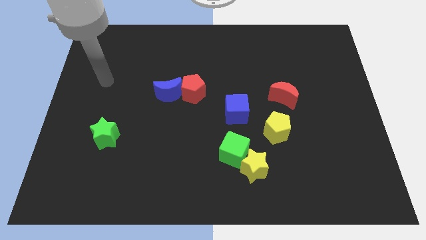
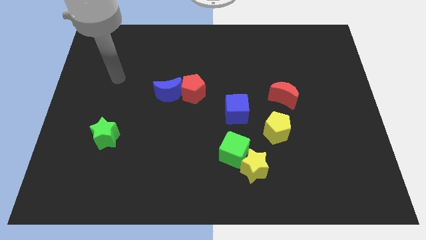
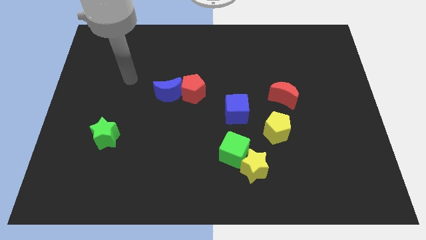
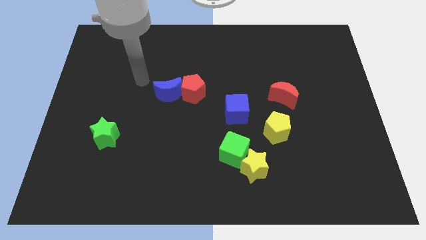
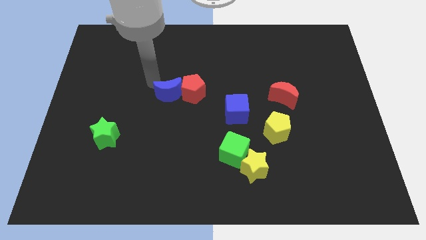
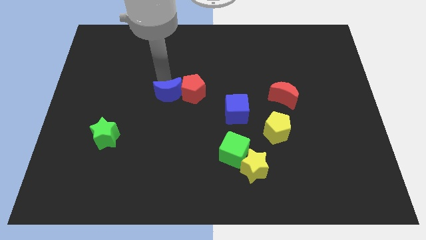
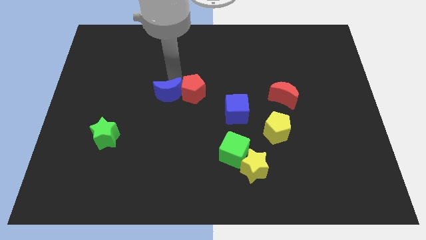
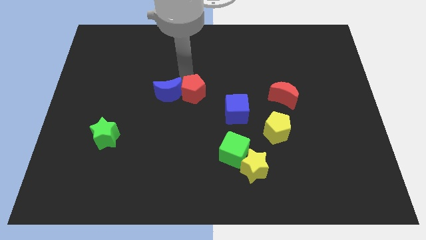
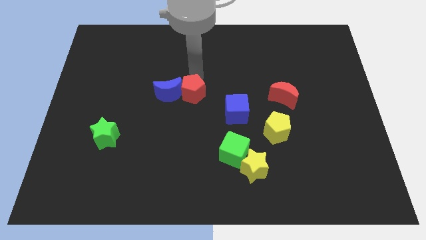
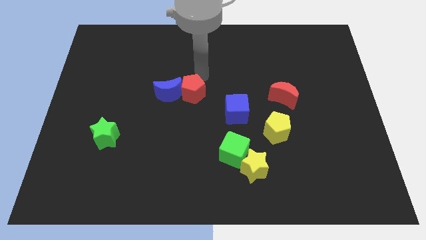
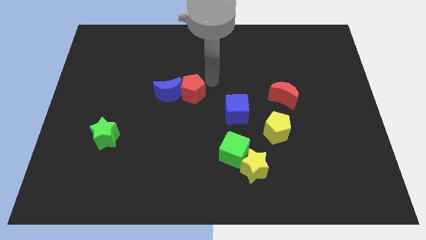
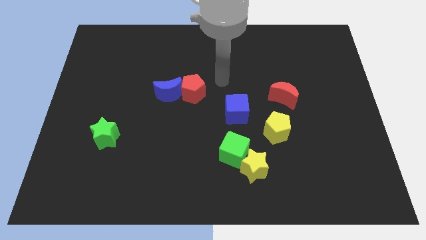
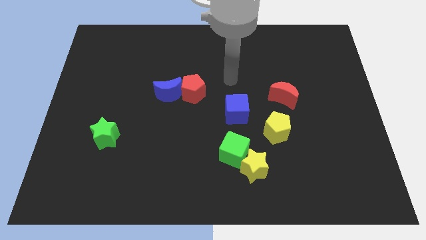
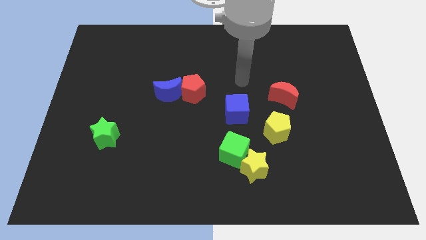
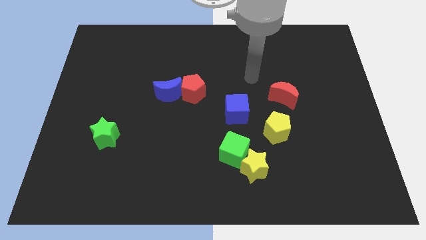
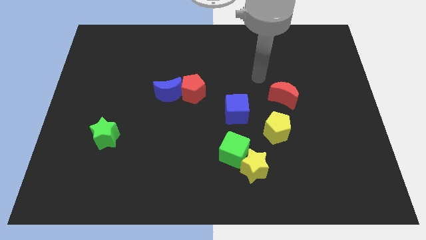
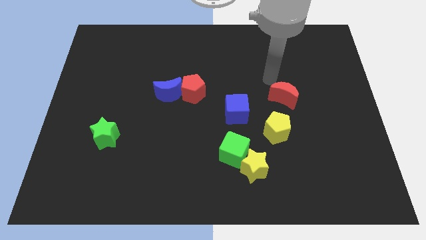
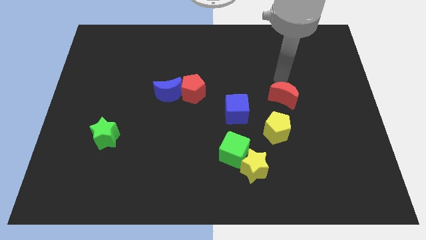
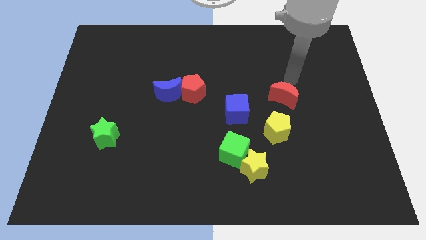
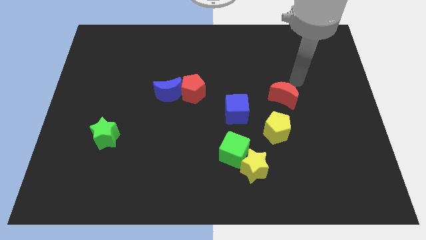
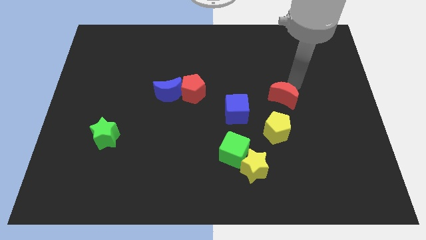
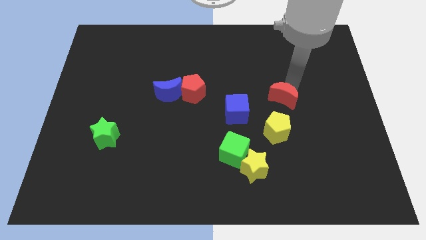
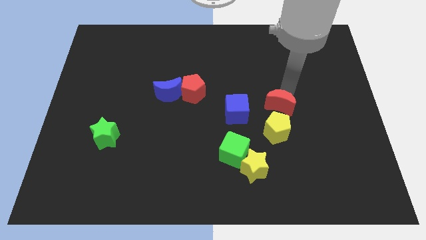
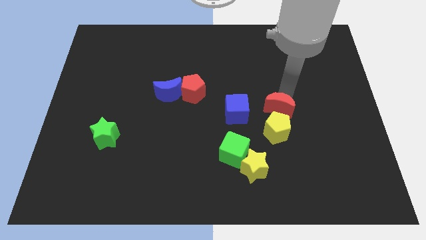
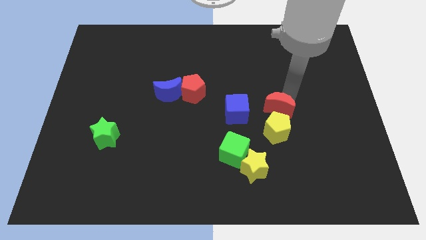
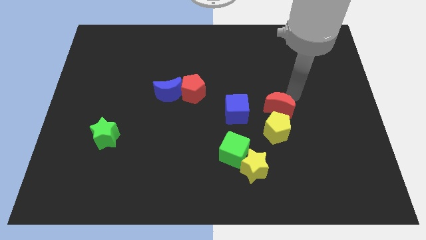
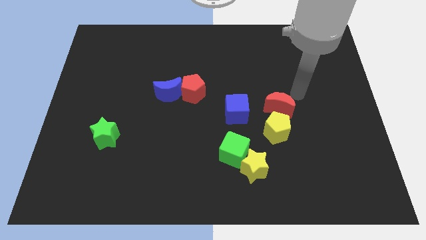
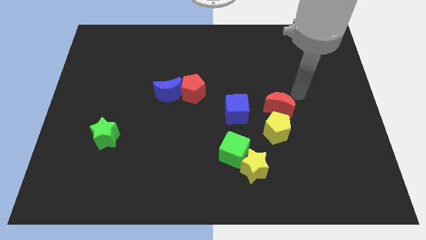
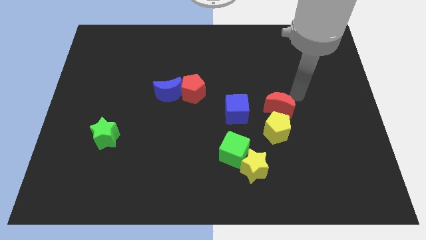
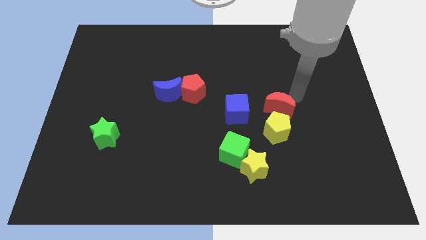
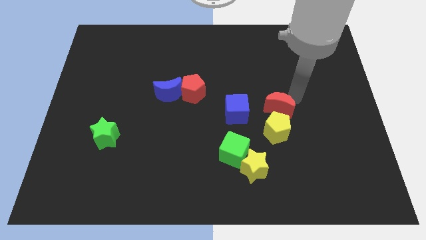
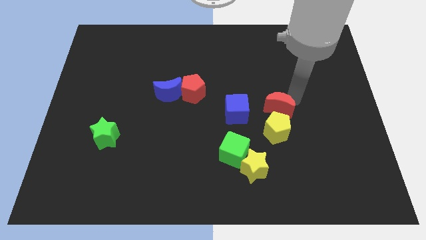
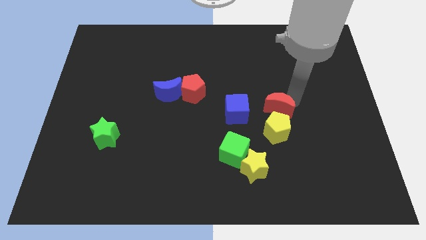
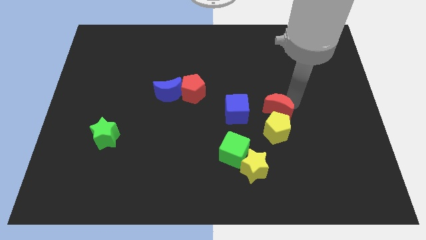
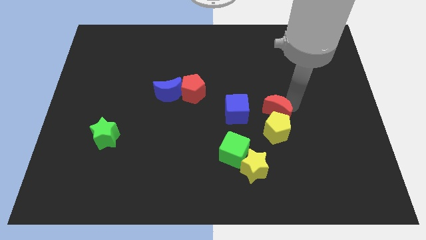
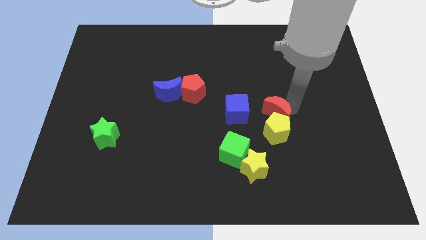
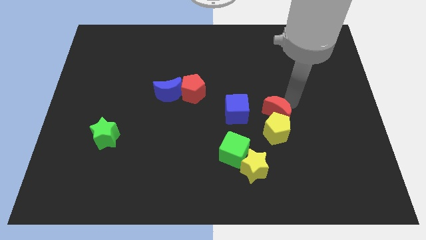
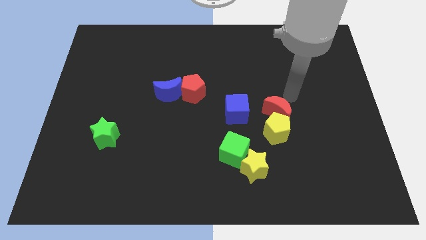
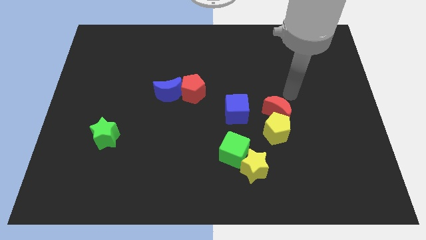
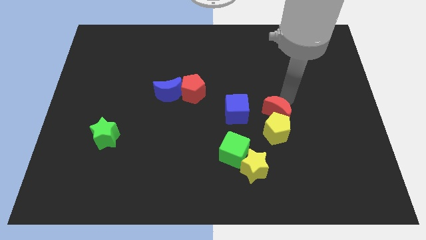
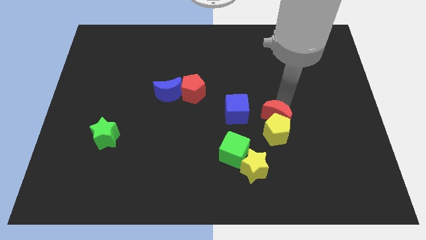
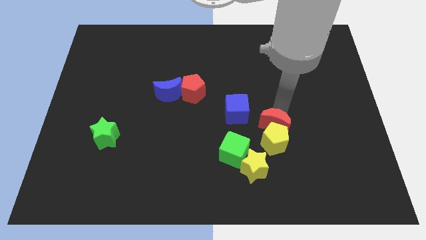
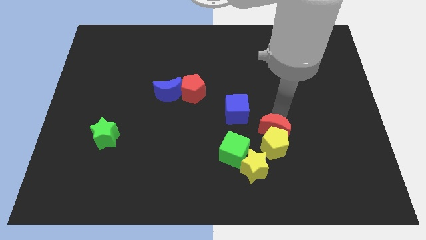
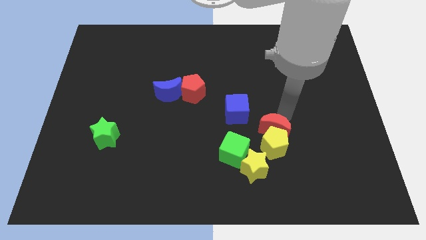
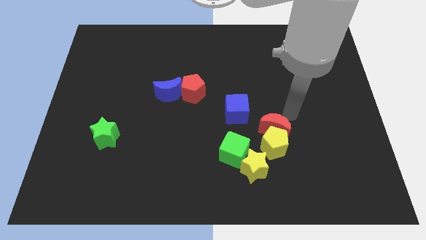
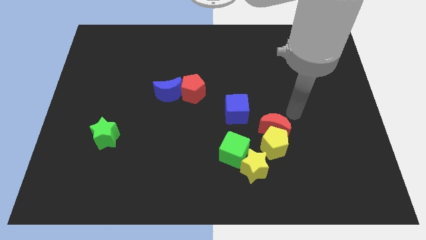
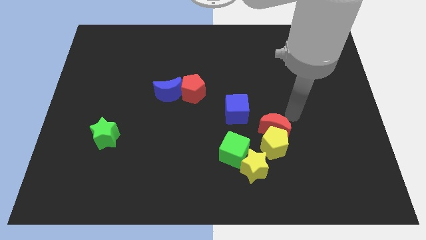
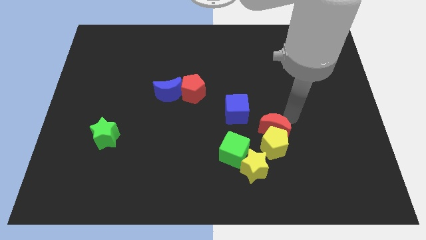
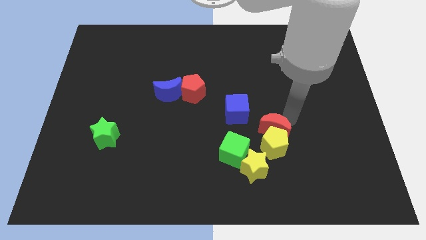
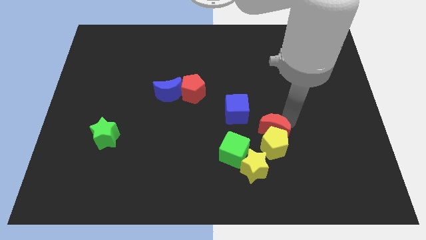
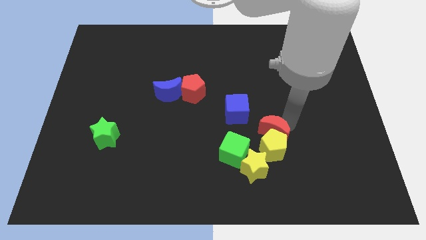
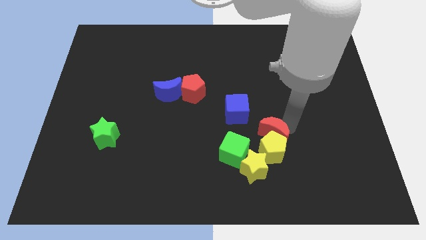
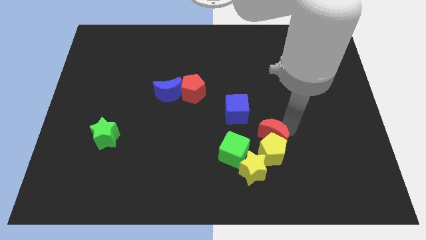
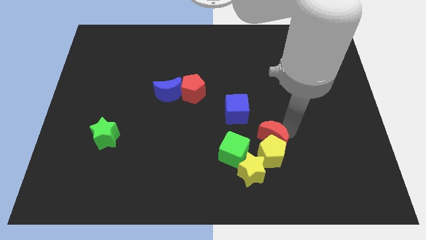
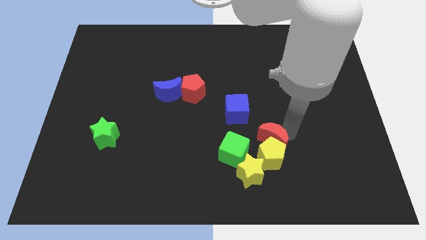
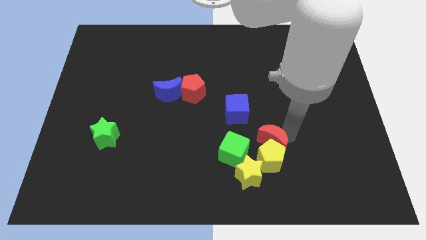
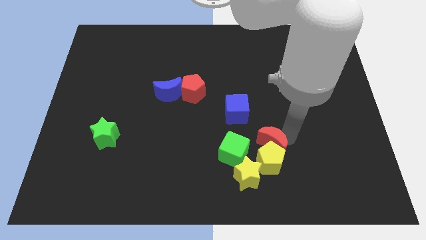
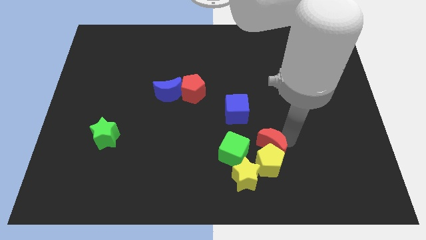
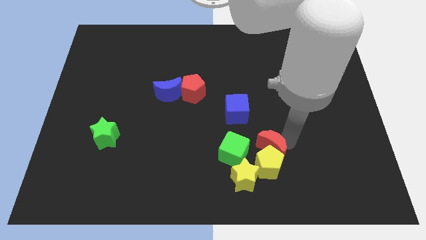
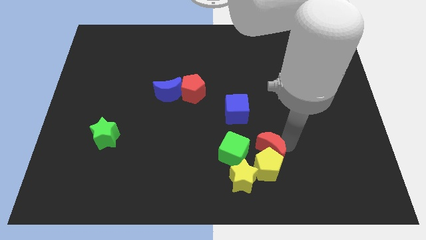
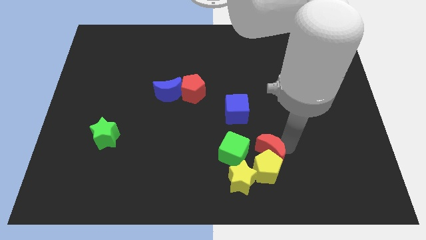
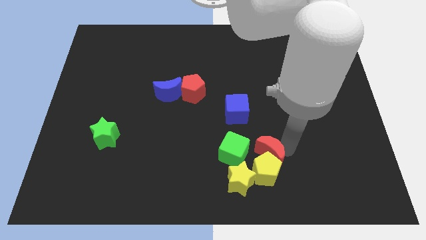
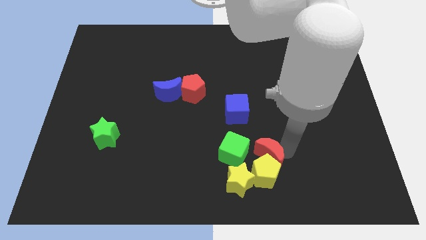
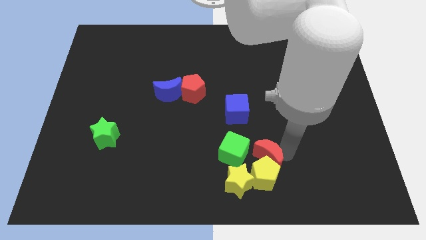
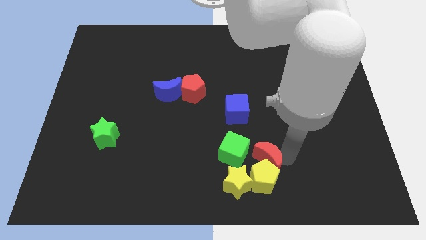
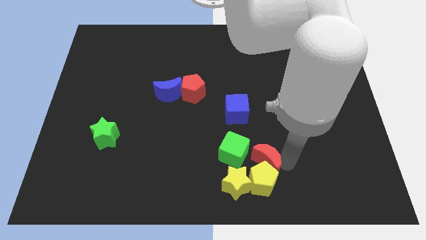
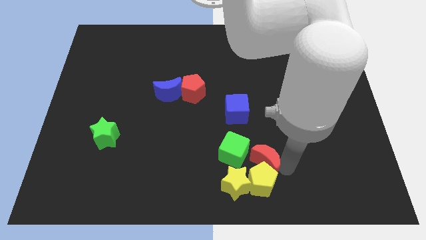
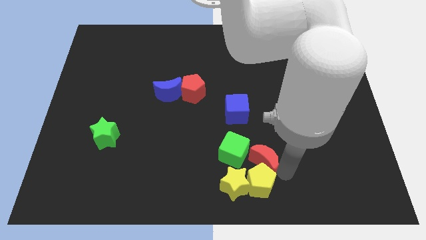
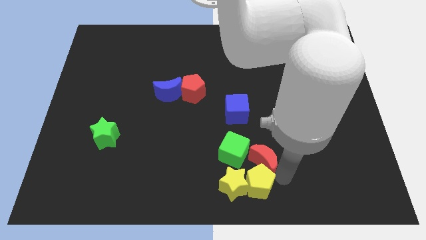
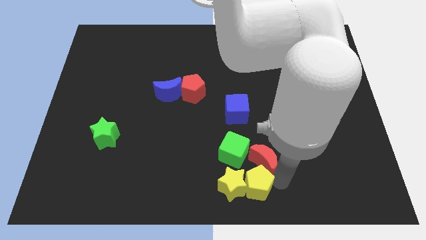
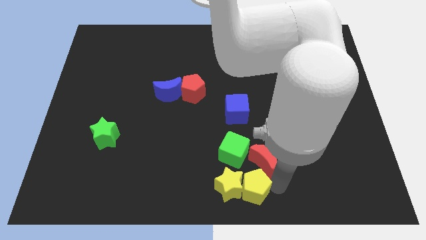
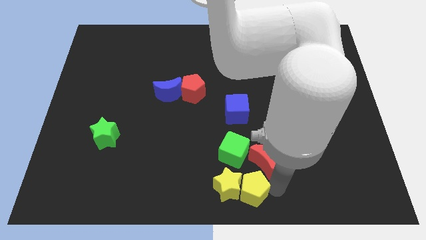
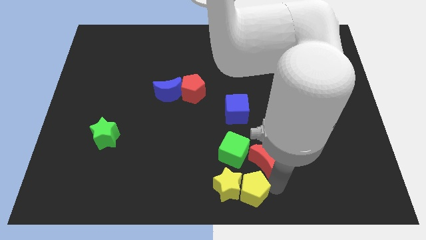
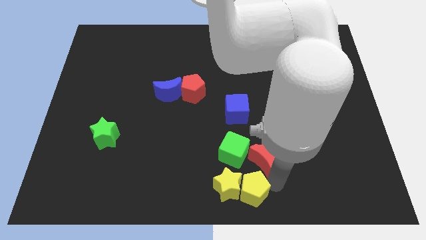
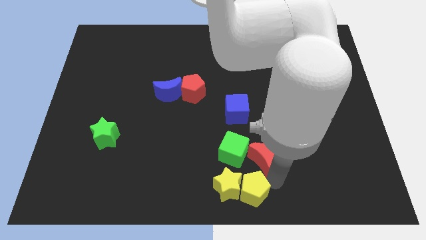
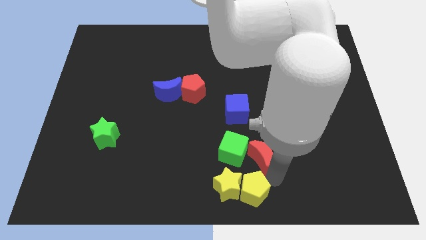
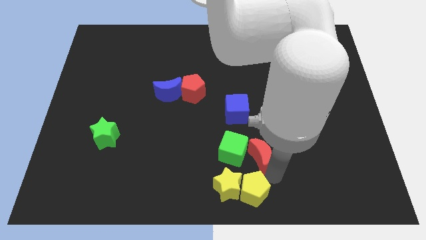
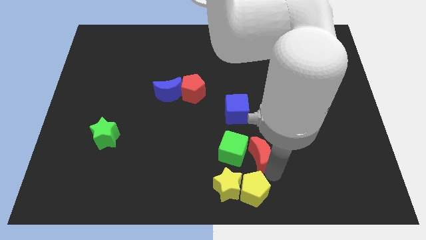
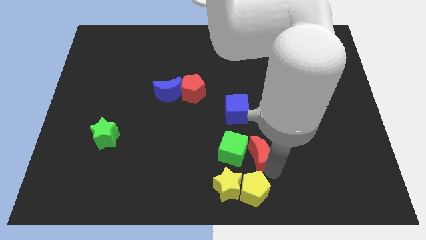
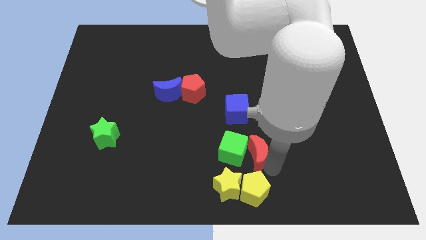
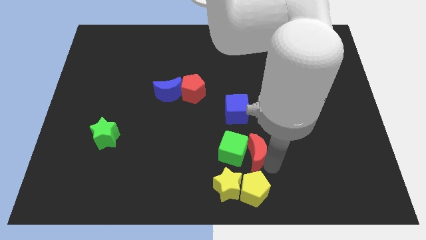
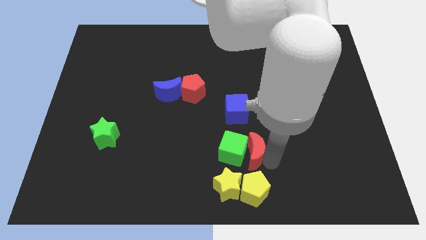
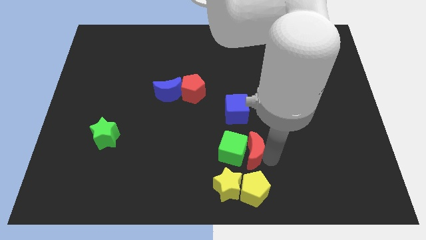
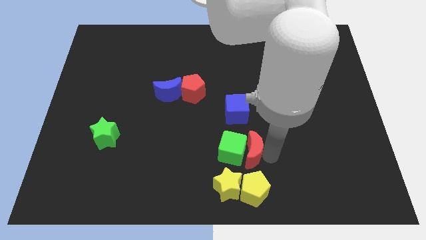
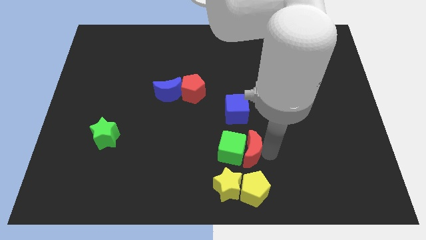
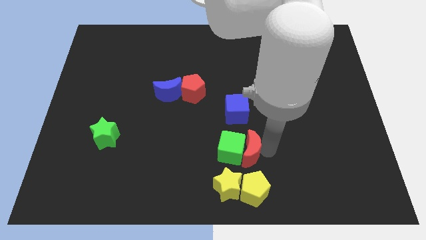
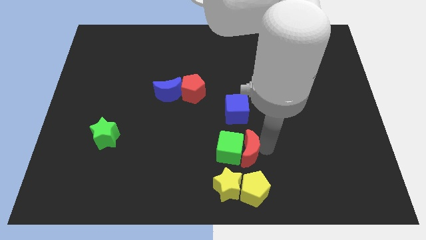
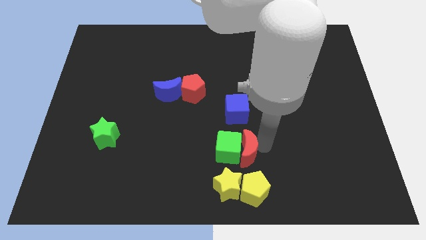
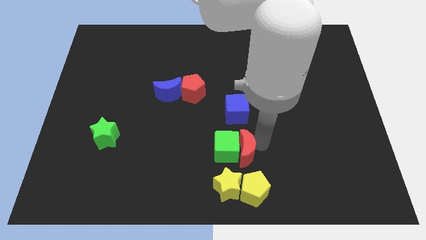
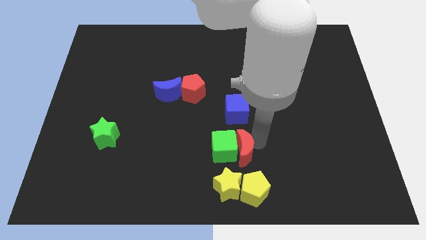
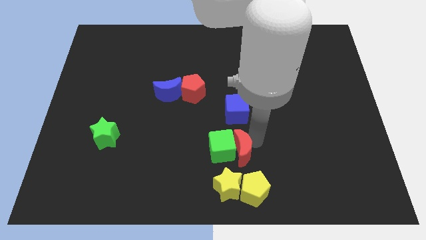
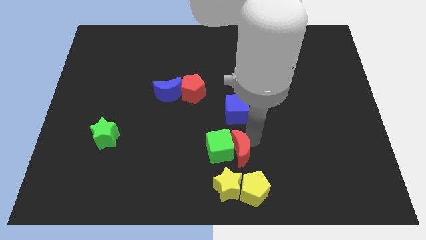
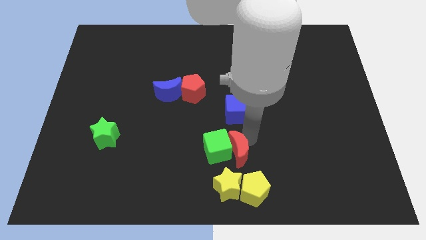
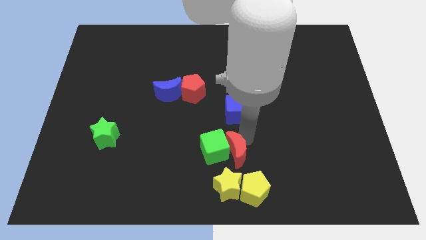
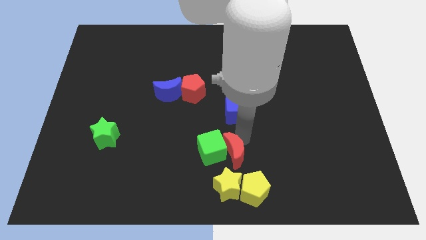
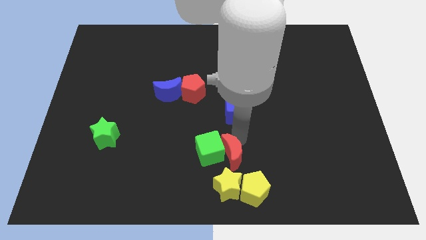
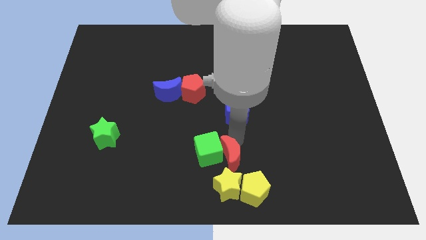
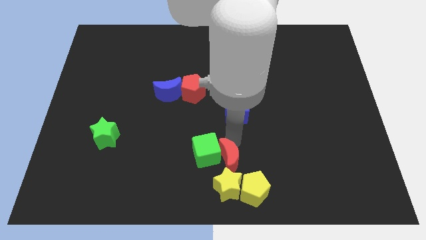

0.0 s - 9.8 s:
put the red moon towards the yellow star
